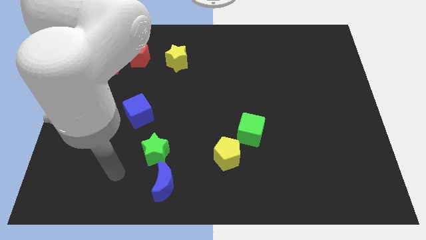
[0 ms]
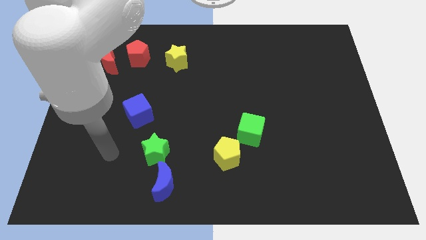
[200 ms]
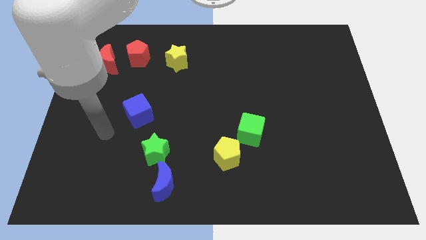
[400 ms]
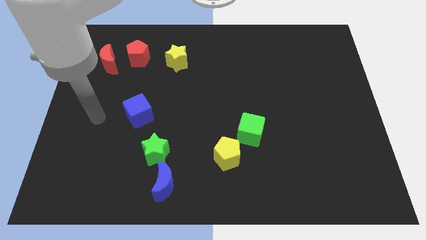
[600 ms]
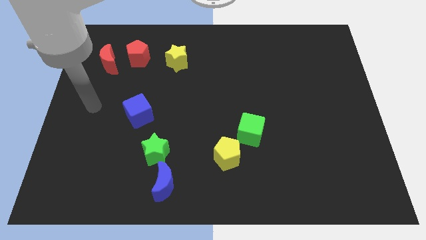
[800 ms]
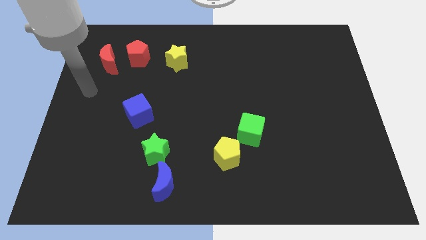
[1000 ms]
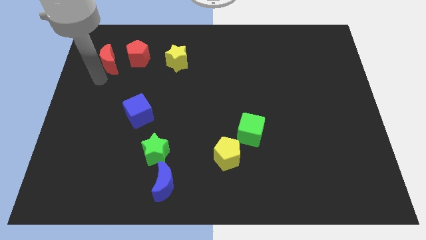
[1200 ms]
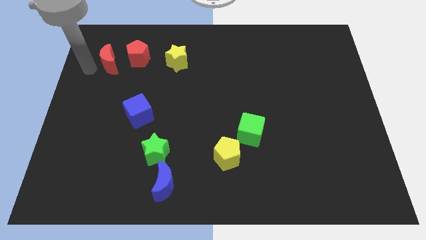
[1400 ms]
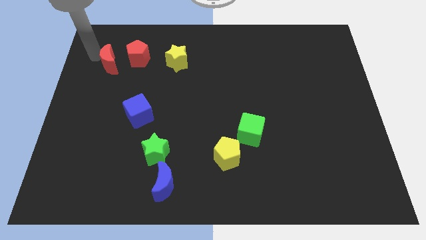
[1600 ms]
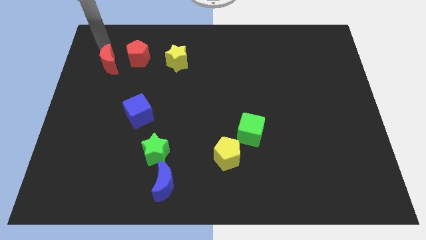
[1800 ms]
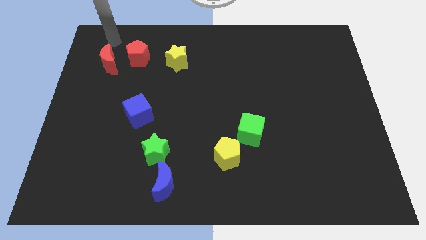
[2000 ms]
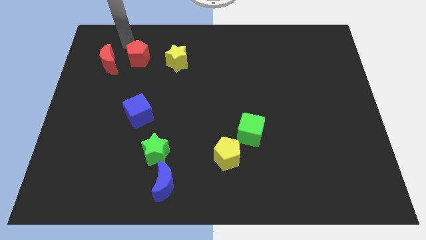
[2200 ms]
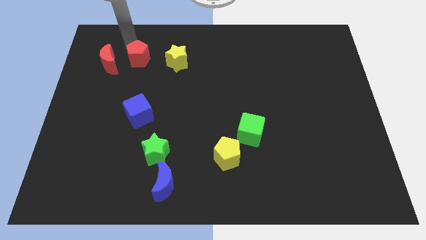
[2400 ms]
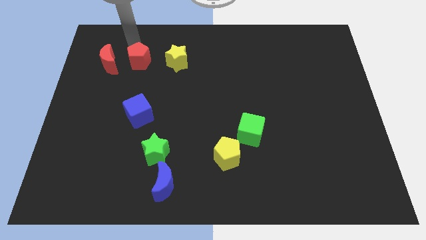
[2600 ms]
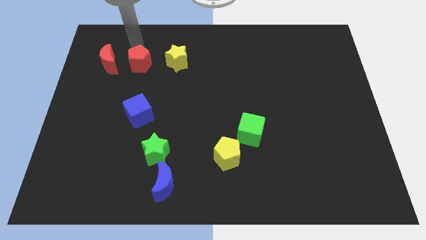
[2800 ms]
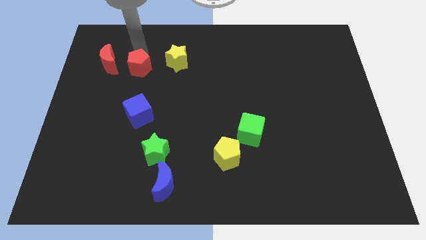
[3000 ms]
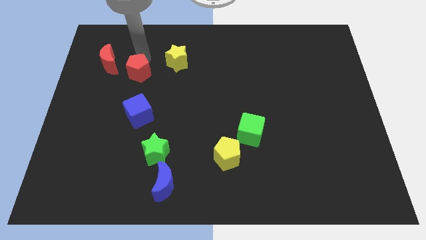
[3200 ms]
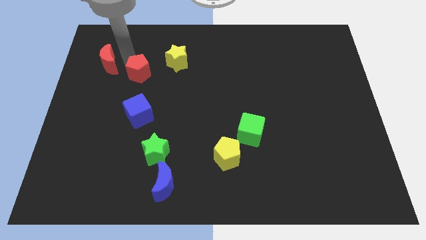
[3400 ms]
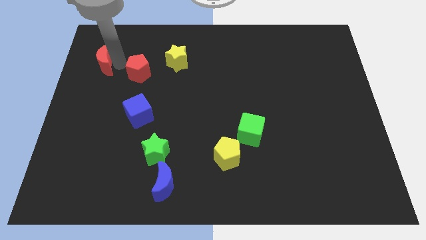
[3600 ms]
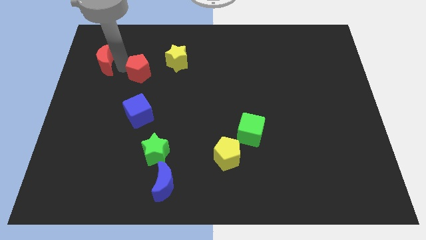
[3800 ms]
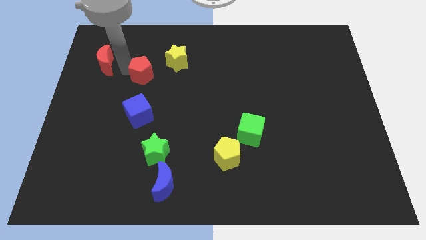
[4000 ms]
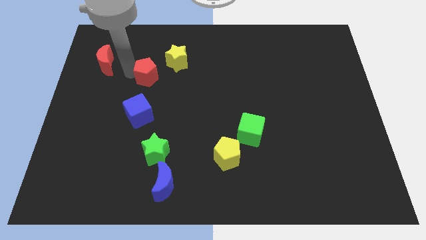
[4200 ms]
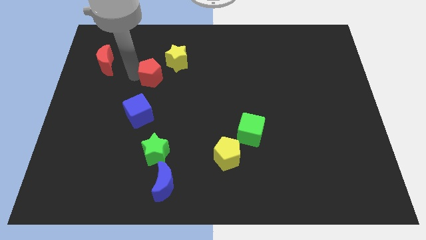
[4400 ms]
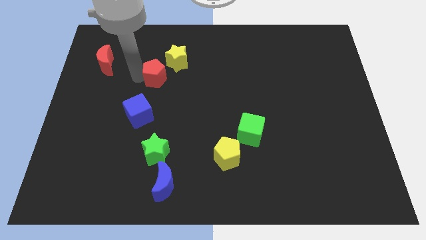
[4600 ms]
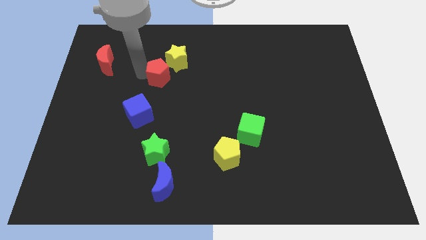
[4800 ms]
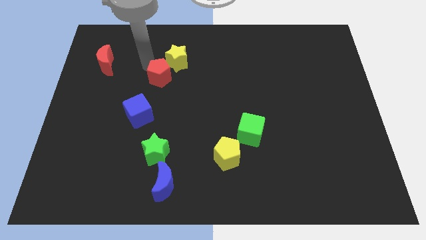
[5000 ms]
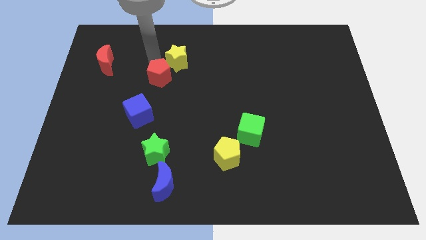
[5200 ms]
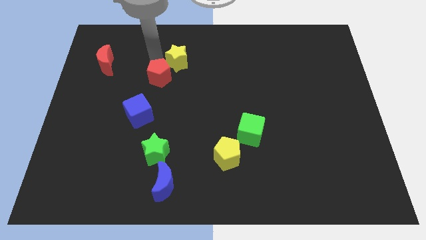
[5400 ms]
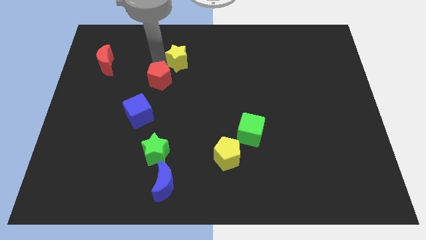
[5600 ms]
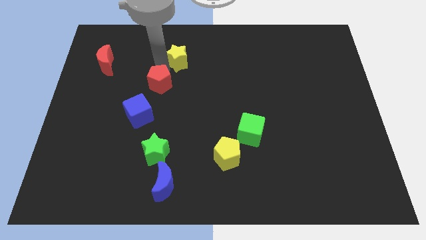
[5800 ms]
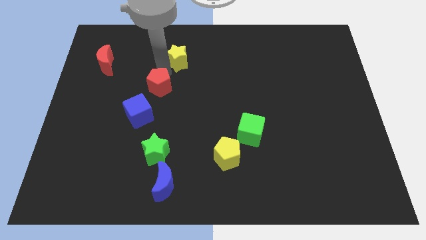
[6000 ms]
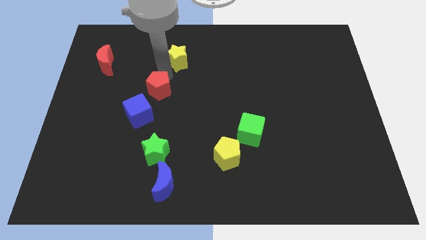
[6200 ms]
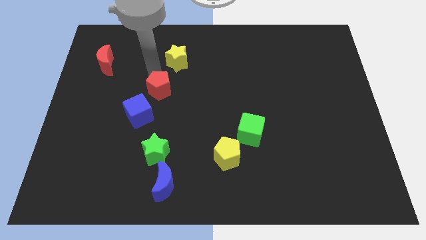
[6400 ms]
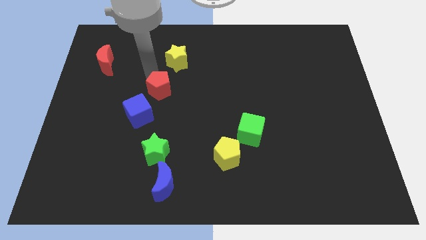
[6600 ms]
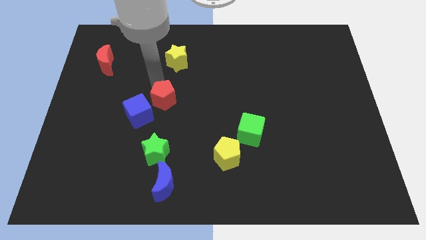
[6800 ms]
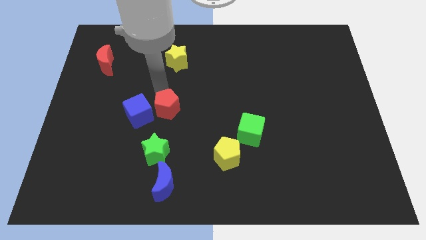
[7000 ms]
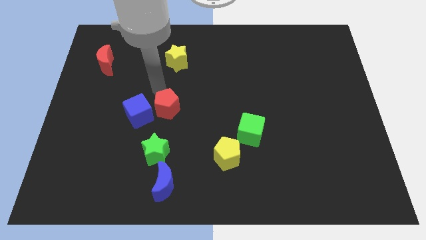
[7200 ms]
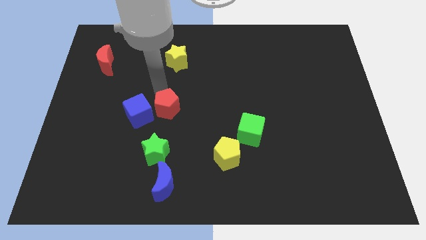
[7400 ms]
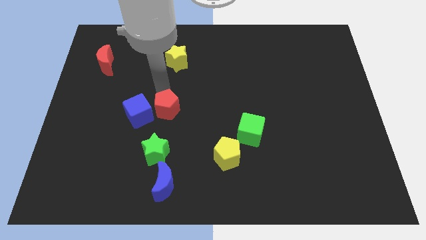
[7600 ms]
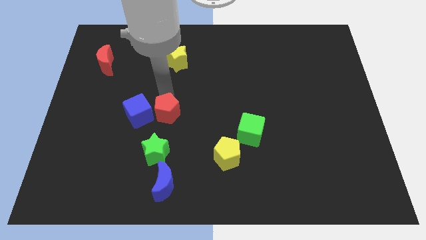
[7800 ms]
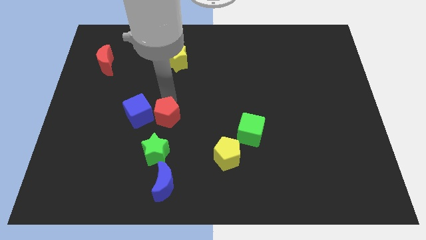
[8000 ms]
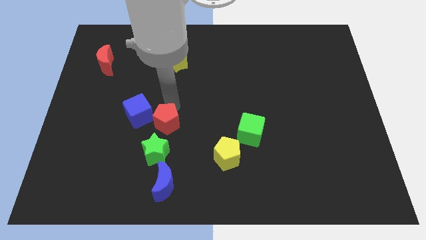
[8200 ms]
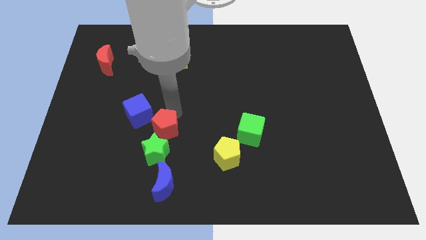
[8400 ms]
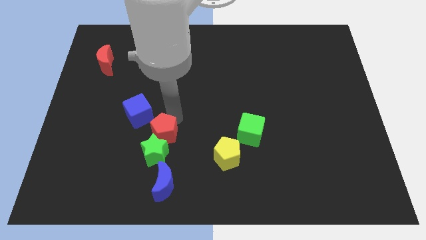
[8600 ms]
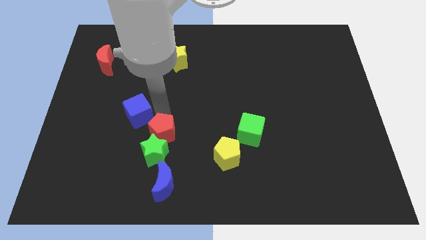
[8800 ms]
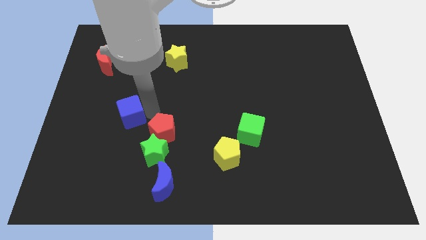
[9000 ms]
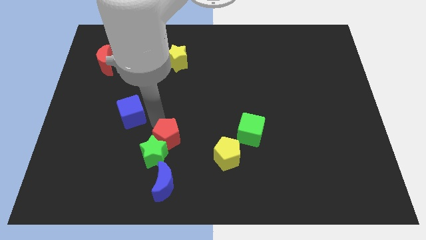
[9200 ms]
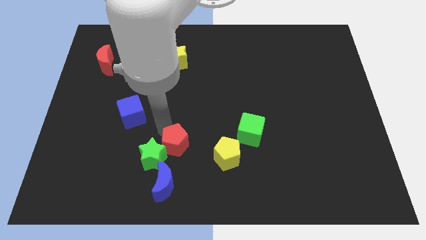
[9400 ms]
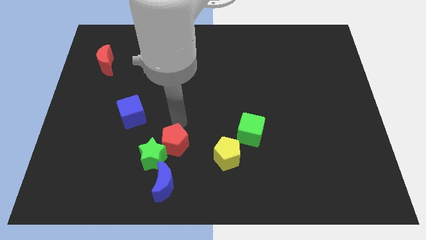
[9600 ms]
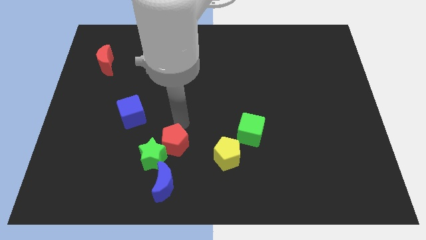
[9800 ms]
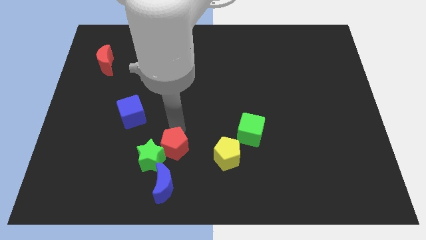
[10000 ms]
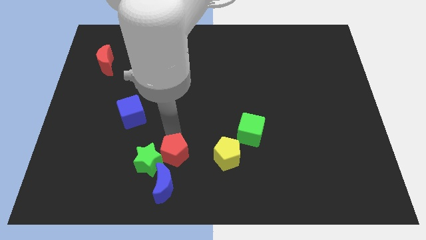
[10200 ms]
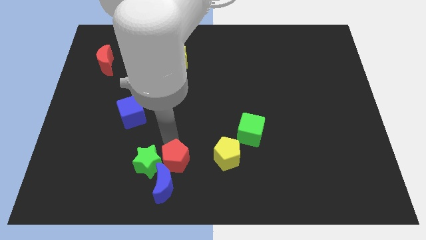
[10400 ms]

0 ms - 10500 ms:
move the red pentagon to the blue moon

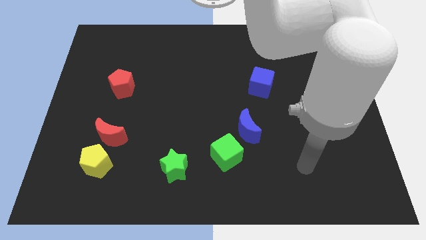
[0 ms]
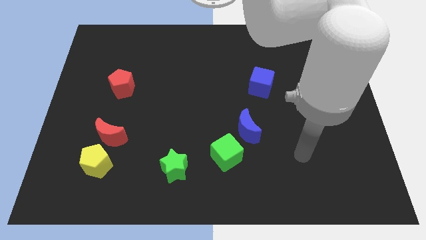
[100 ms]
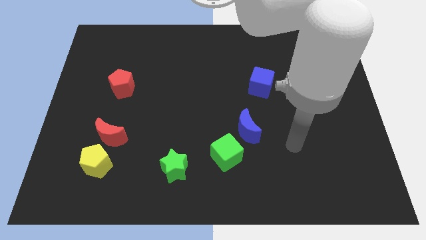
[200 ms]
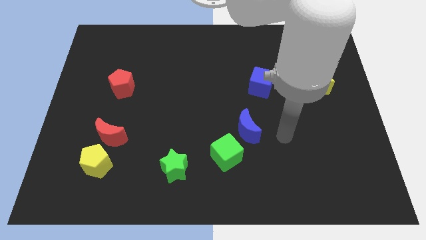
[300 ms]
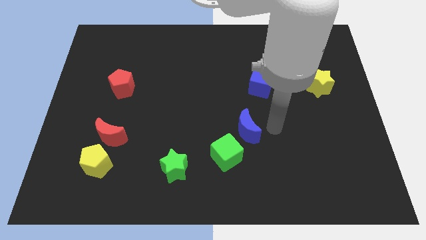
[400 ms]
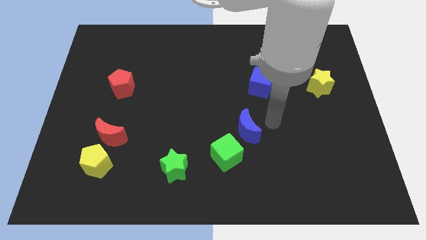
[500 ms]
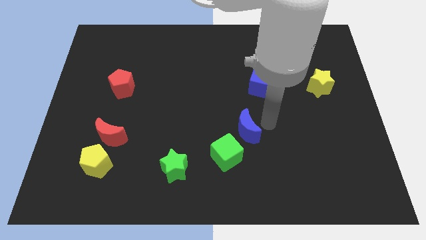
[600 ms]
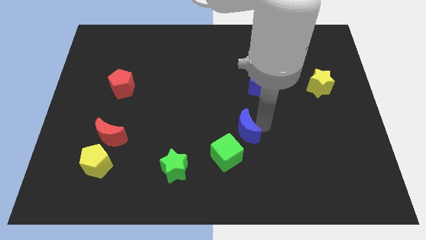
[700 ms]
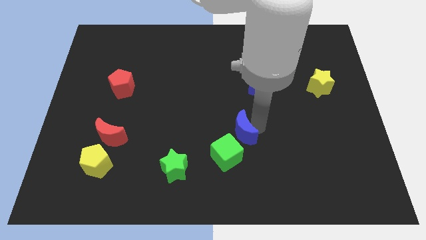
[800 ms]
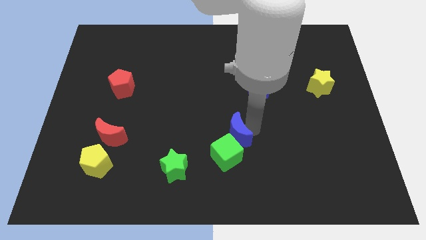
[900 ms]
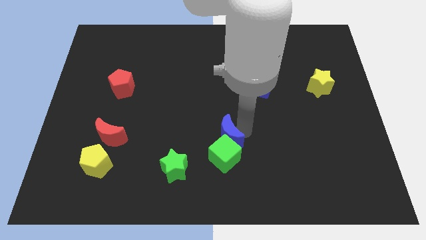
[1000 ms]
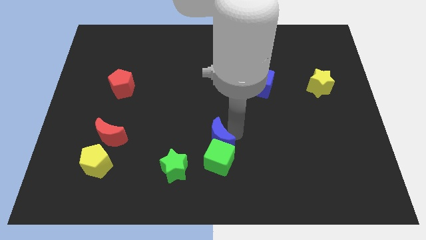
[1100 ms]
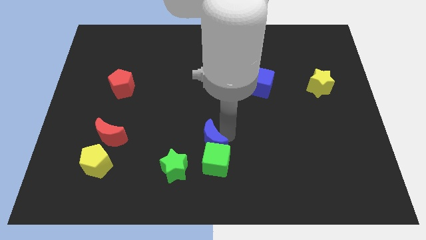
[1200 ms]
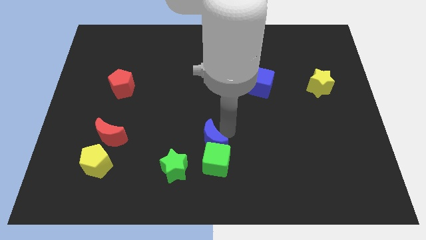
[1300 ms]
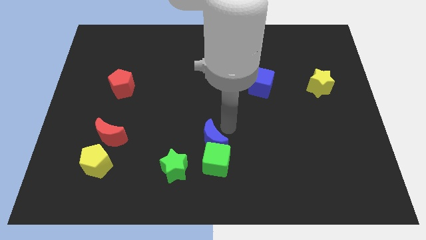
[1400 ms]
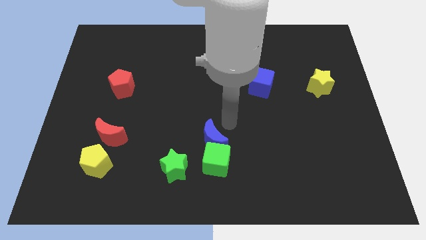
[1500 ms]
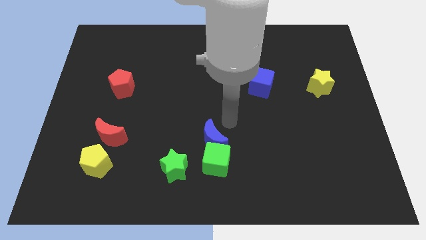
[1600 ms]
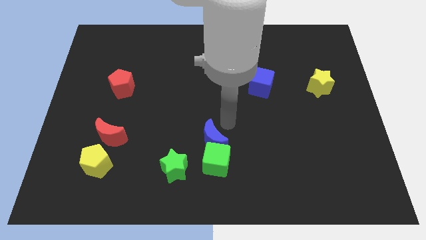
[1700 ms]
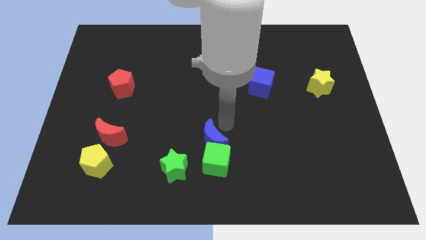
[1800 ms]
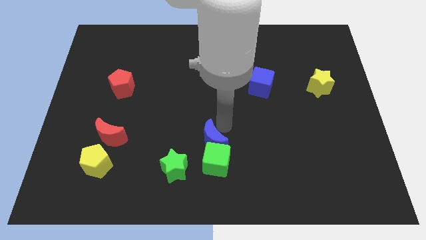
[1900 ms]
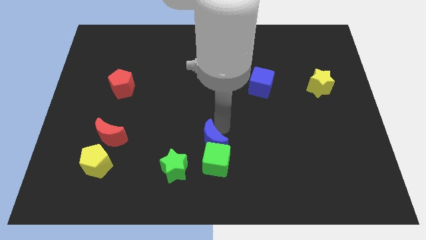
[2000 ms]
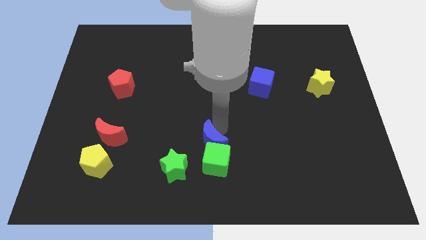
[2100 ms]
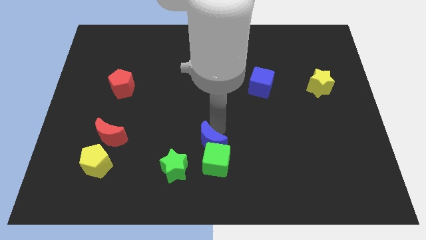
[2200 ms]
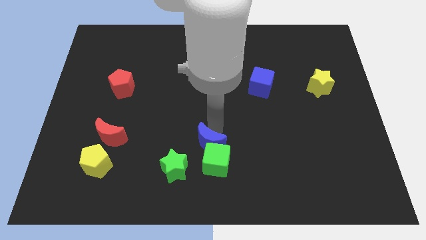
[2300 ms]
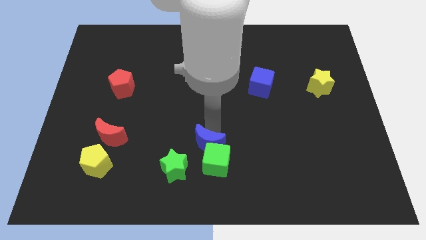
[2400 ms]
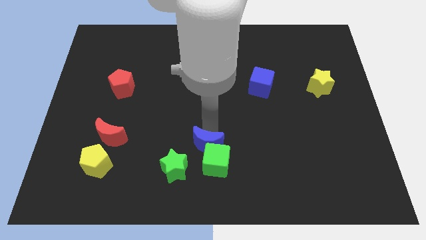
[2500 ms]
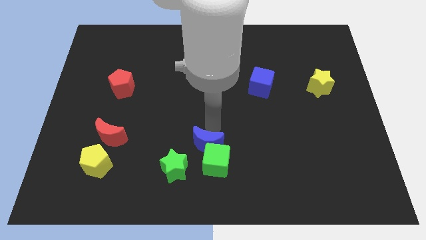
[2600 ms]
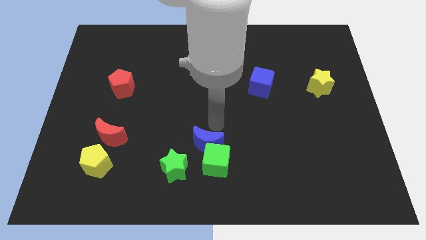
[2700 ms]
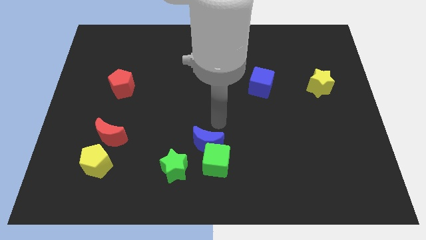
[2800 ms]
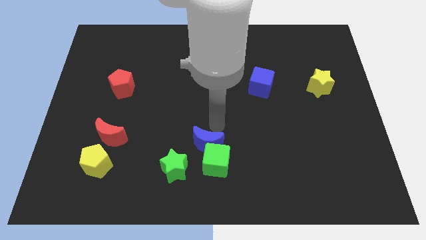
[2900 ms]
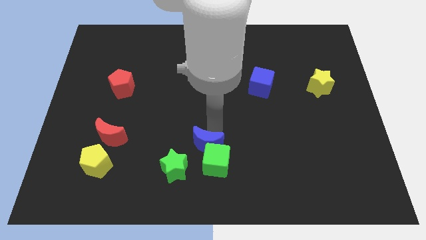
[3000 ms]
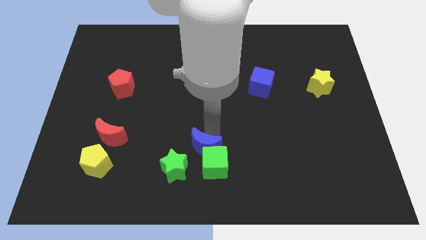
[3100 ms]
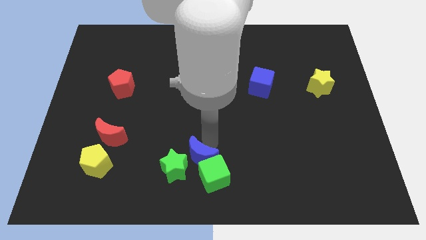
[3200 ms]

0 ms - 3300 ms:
put the blue moon towards the green star
